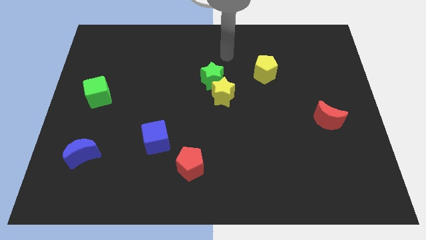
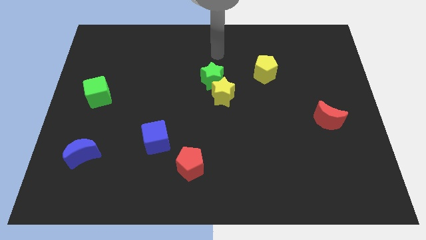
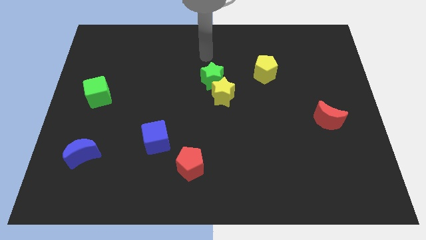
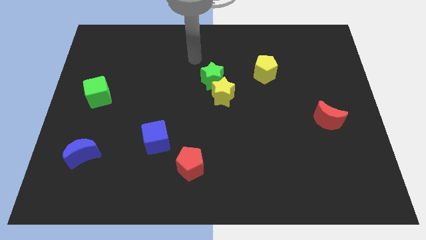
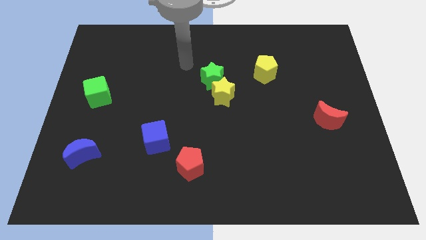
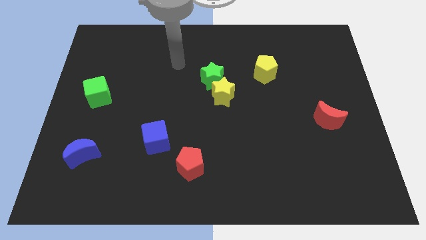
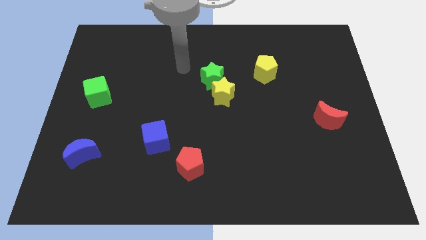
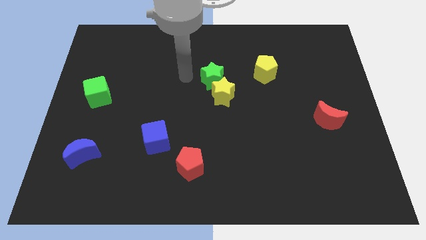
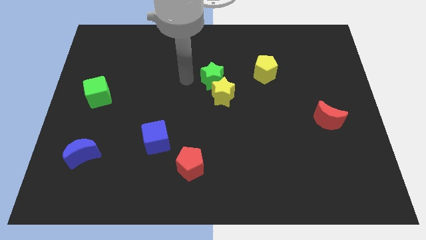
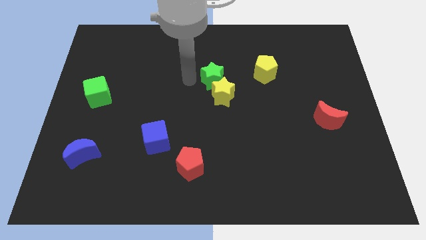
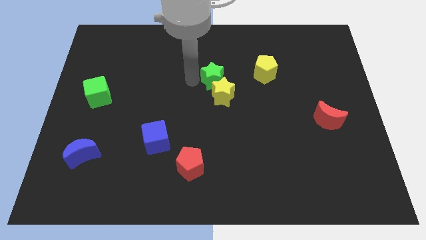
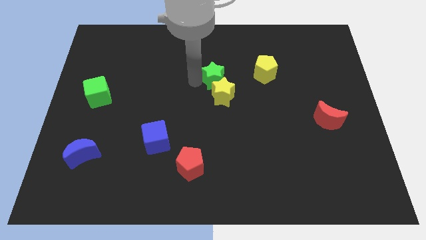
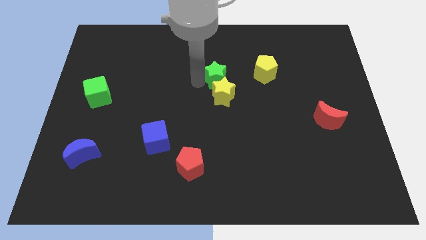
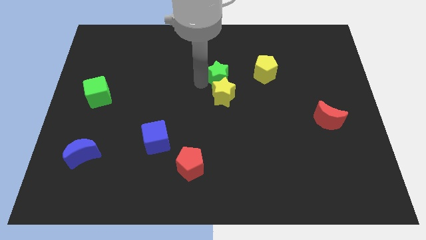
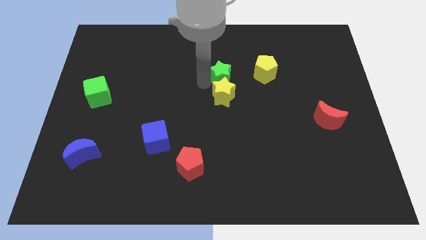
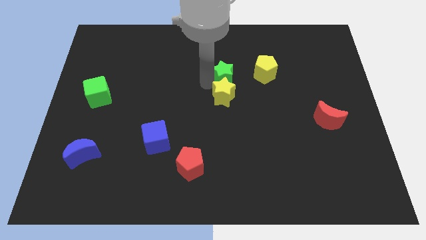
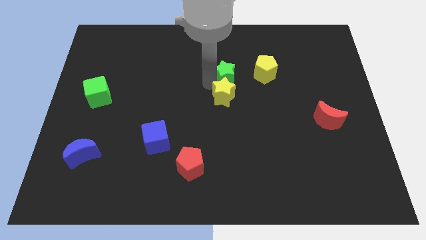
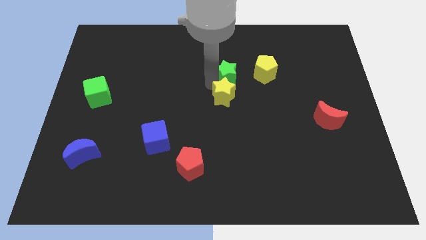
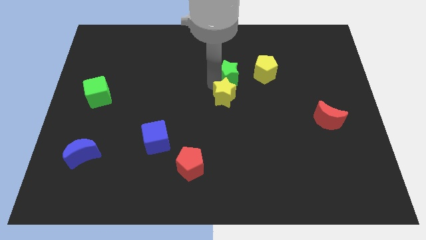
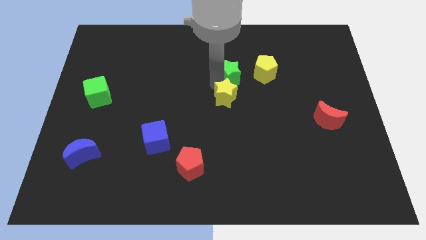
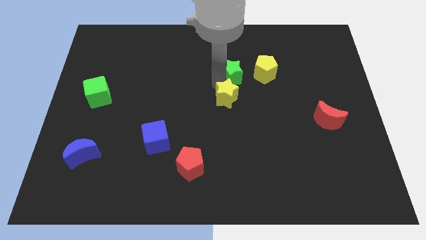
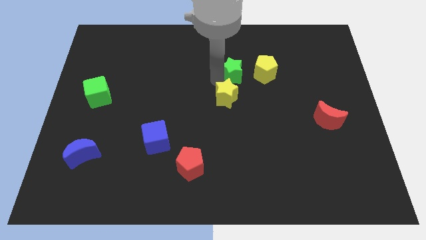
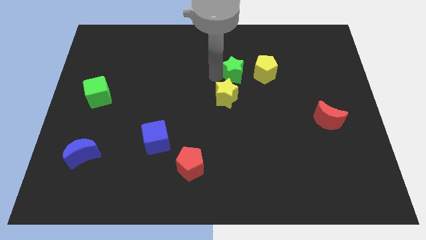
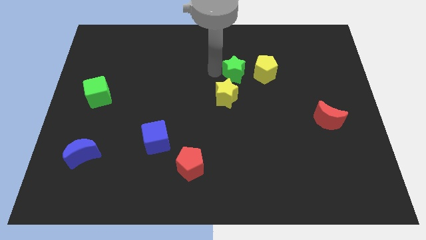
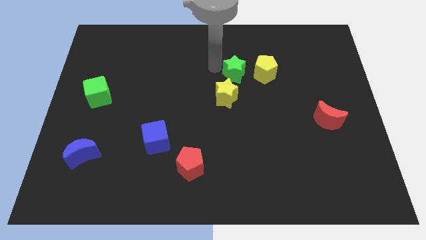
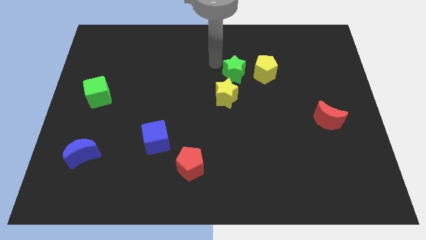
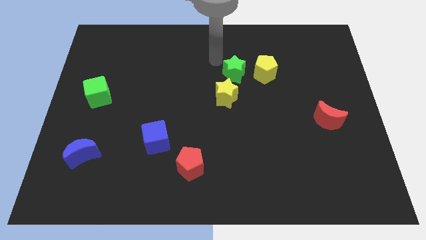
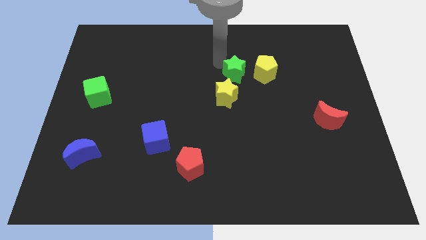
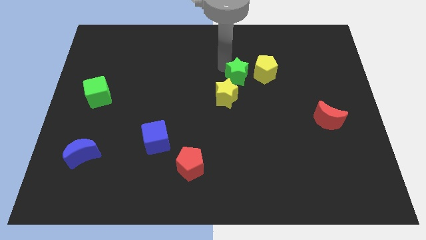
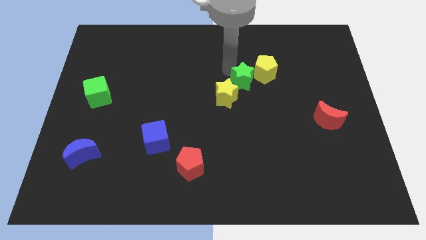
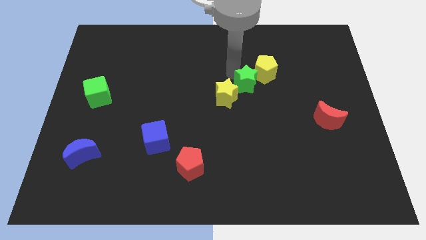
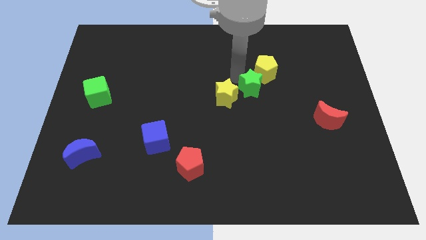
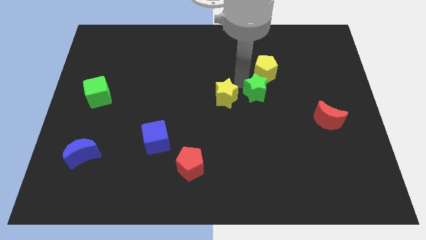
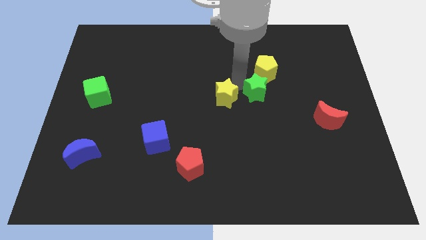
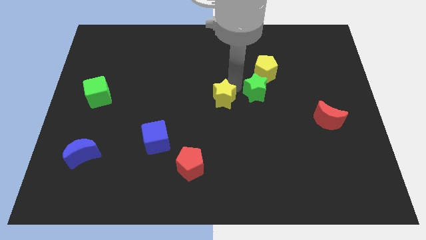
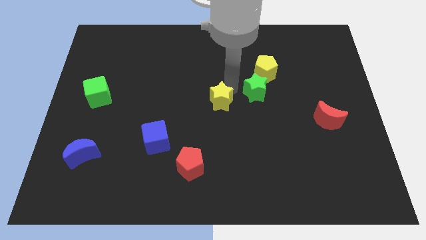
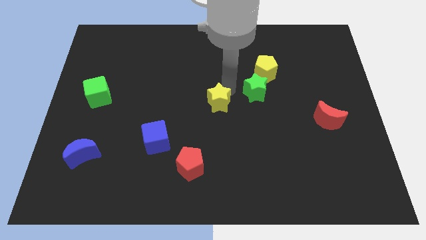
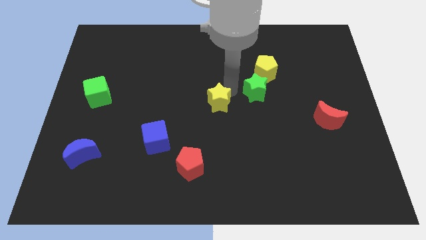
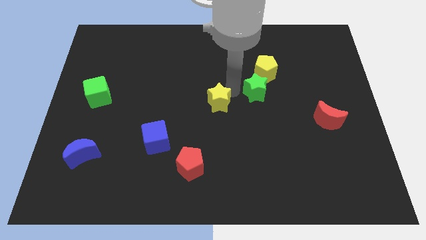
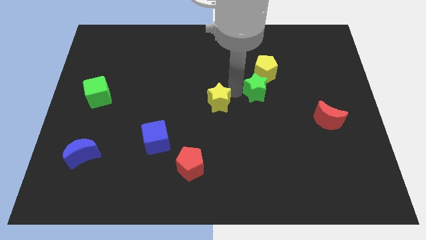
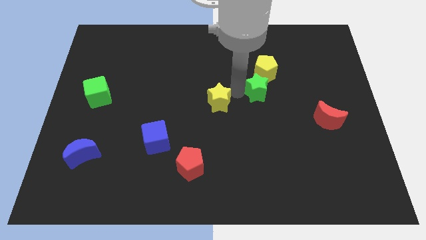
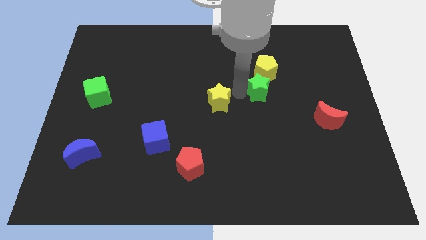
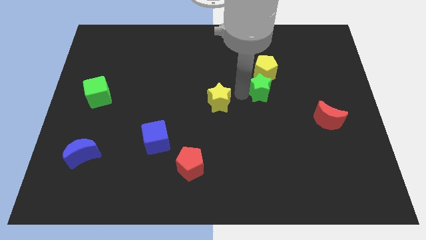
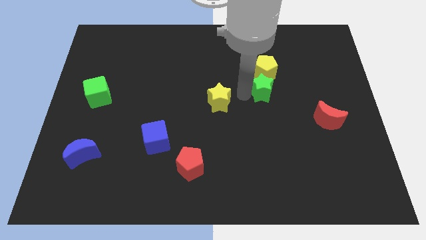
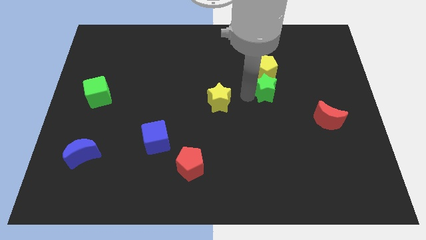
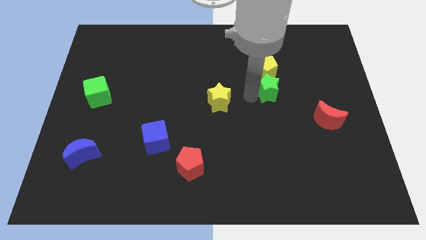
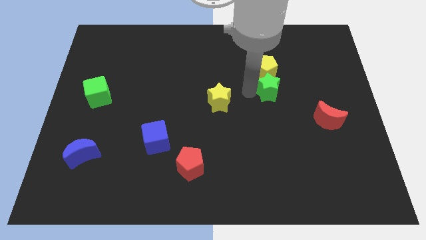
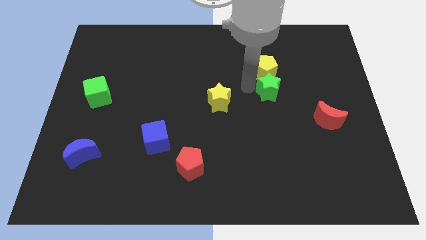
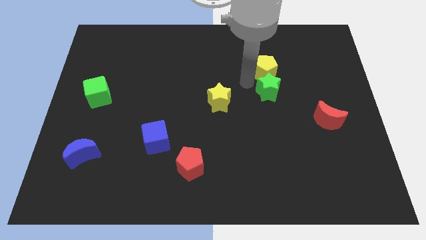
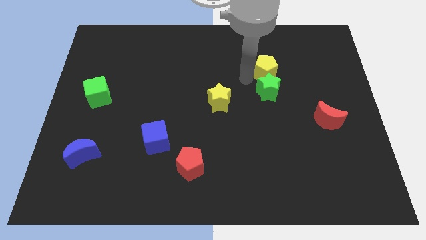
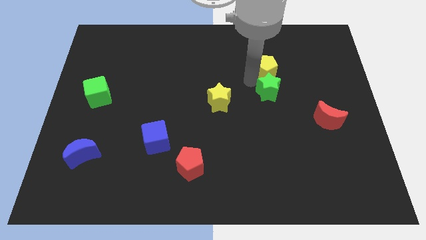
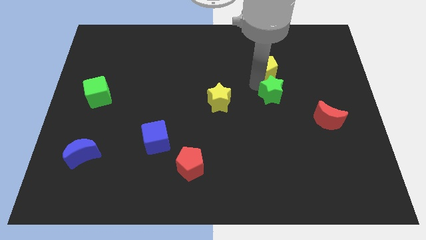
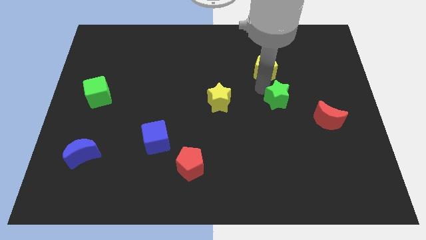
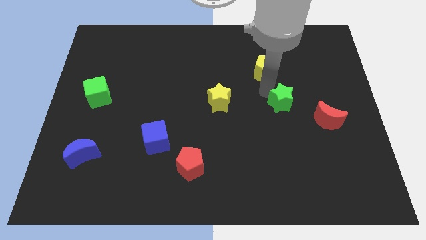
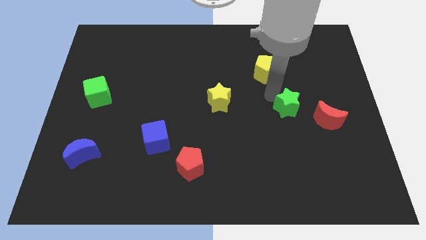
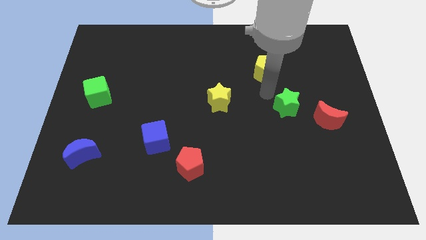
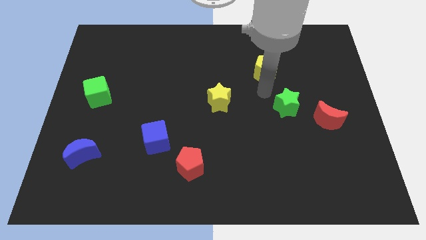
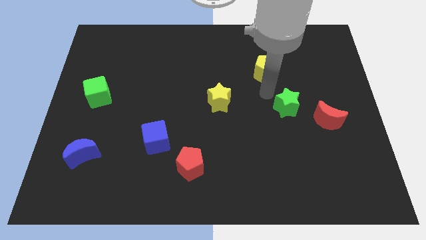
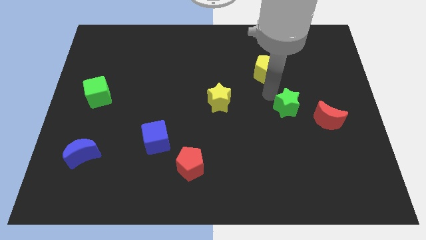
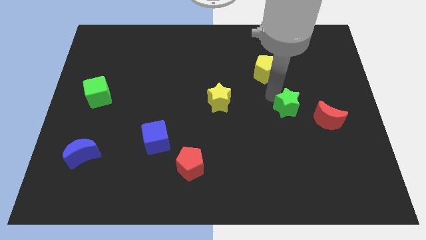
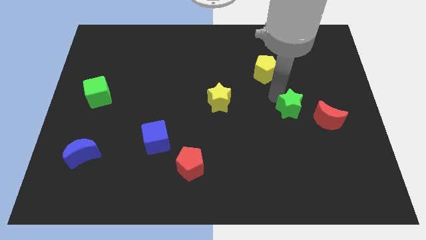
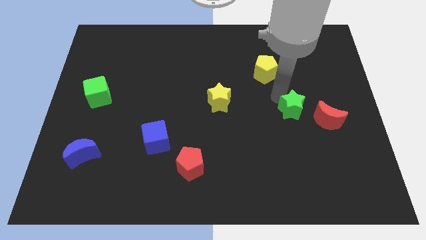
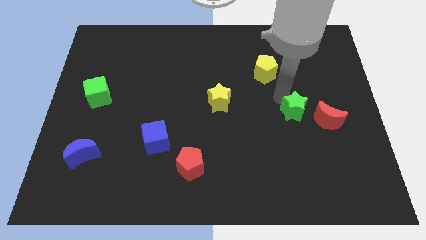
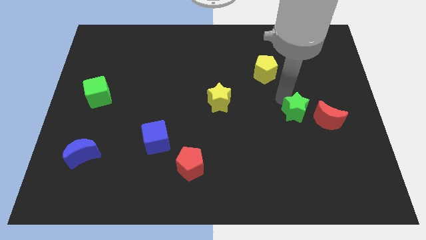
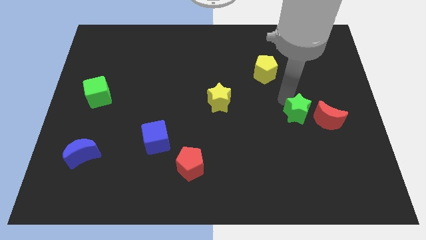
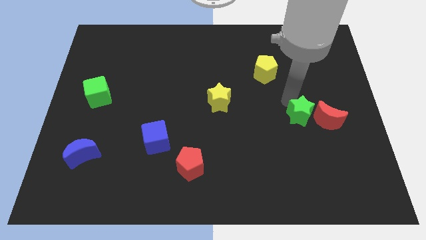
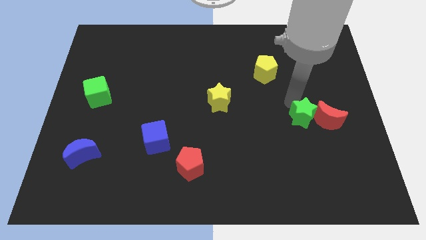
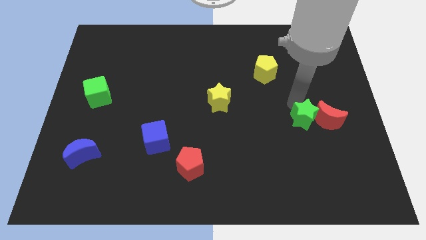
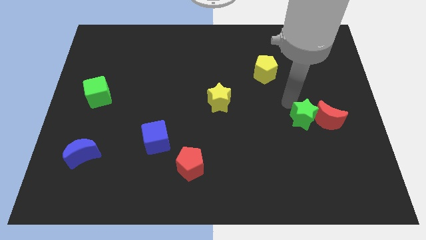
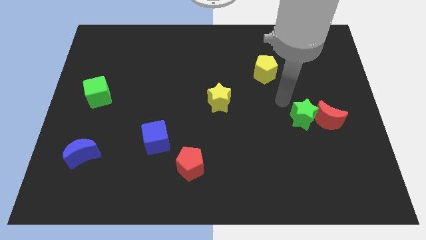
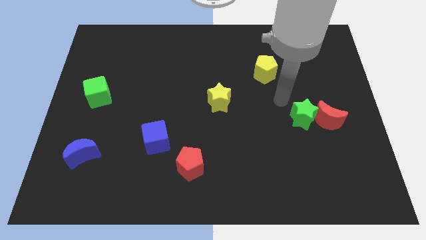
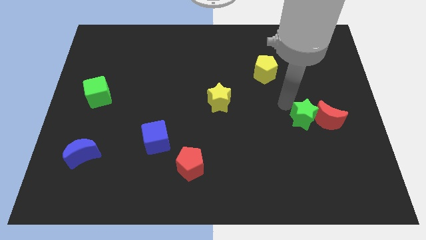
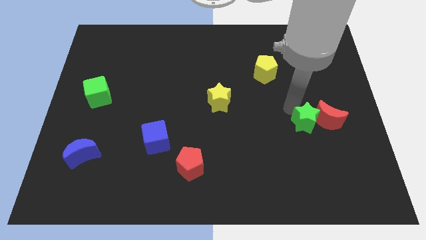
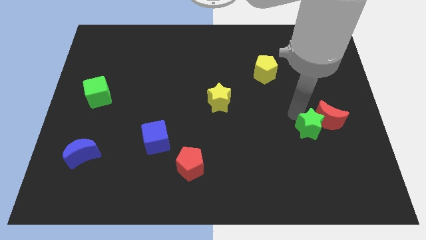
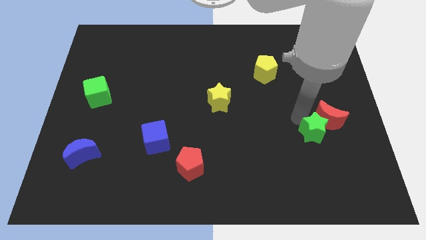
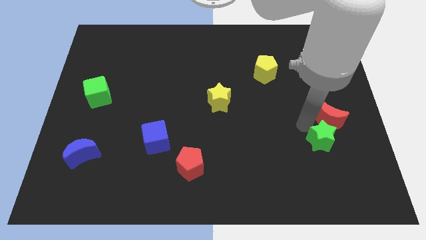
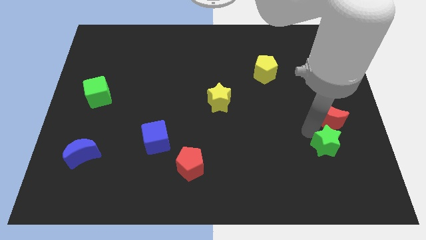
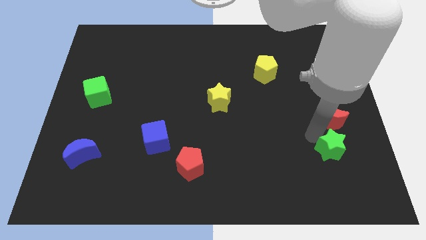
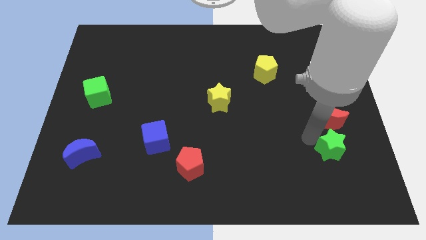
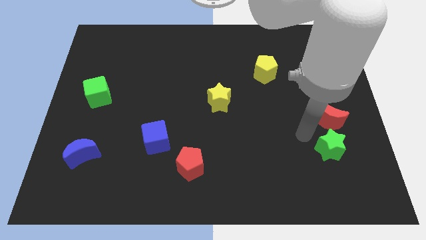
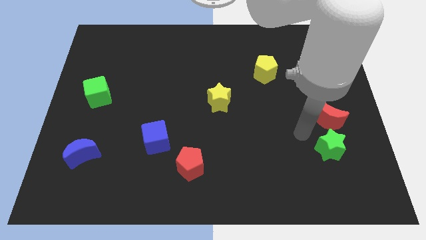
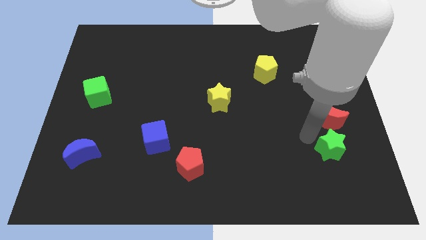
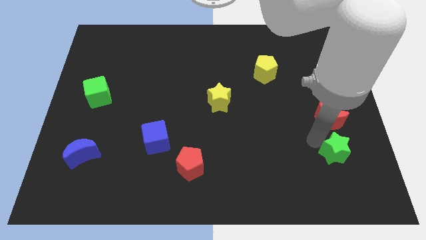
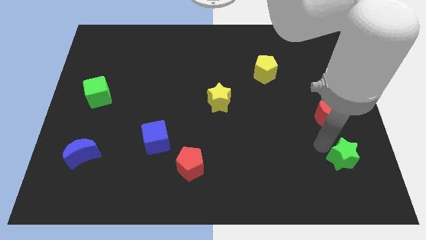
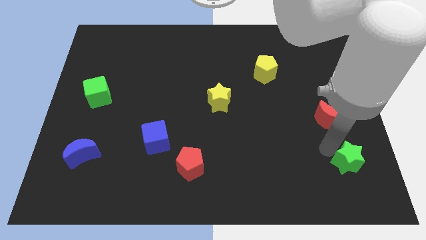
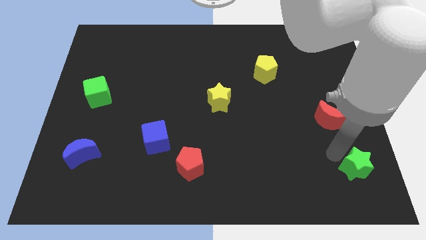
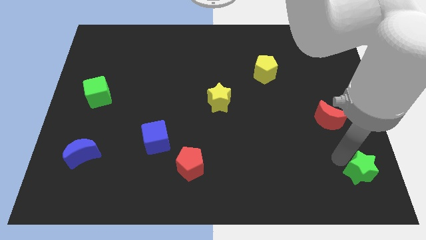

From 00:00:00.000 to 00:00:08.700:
put the green star to the bottom right
